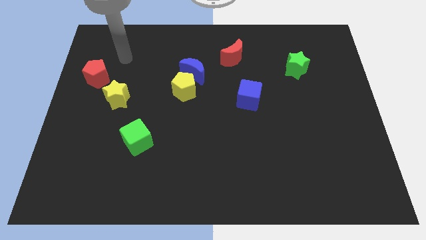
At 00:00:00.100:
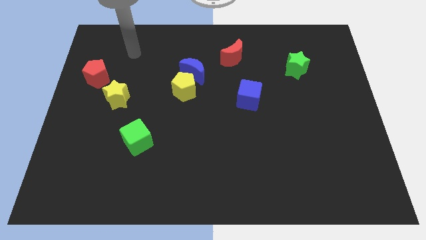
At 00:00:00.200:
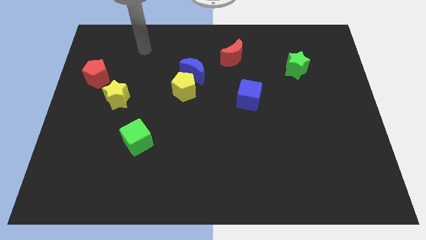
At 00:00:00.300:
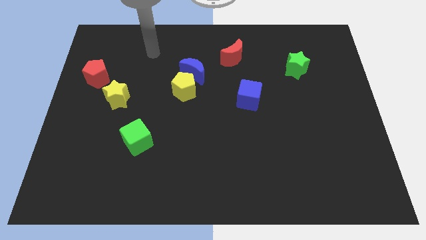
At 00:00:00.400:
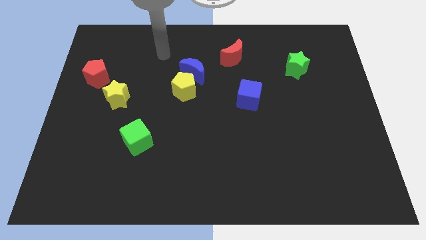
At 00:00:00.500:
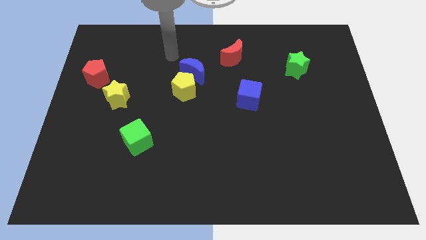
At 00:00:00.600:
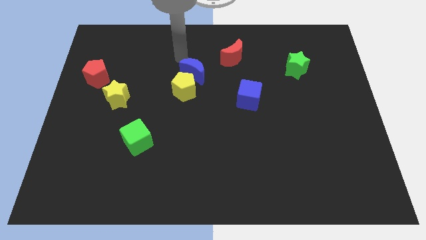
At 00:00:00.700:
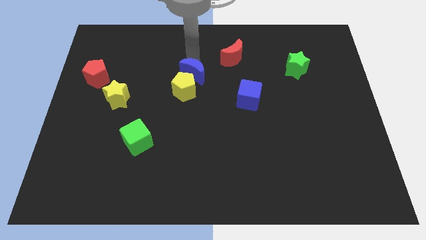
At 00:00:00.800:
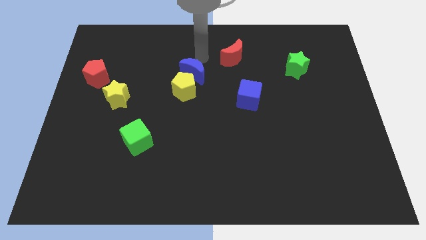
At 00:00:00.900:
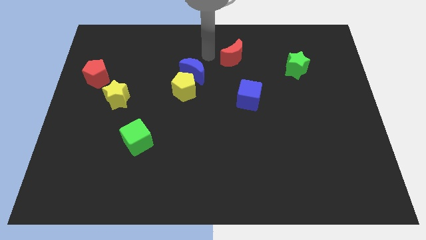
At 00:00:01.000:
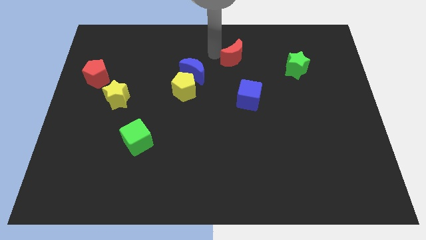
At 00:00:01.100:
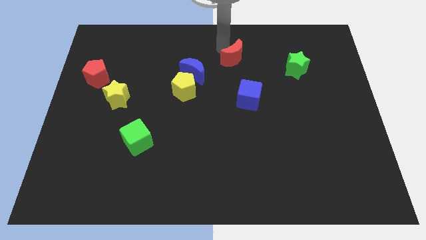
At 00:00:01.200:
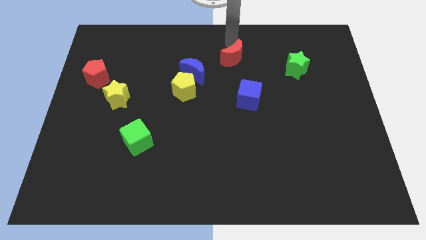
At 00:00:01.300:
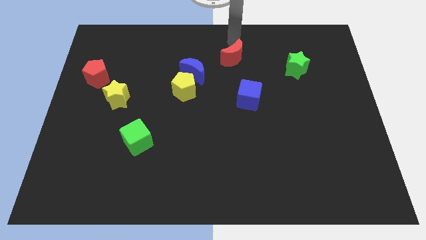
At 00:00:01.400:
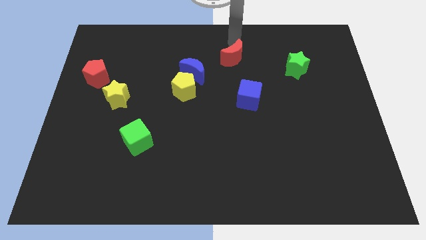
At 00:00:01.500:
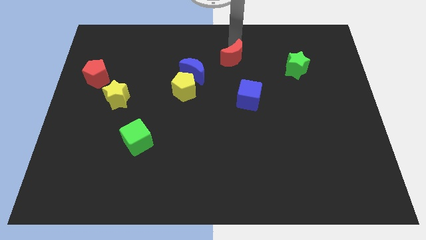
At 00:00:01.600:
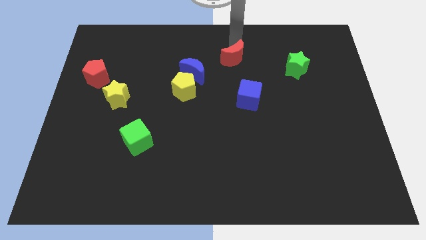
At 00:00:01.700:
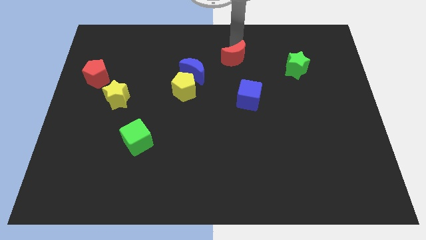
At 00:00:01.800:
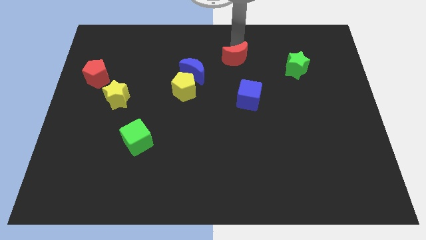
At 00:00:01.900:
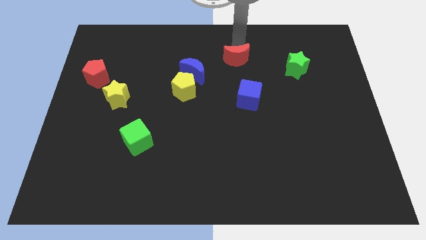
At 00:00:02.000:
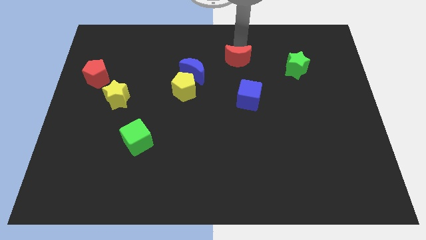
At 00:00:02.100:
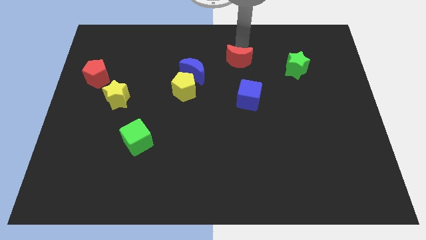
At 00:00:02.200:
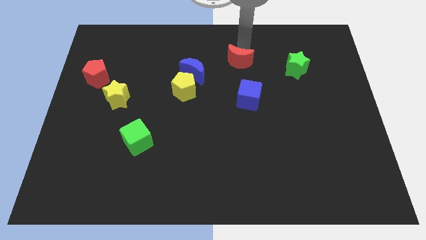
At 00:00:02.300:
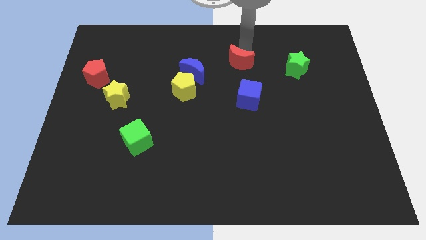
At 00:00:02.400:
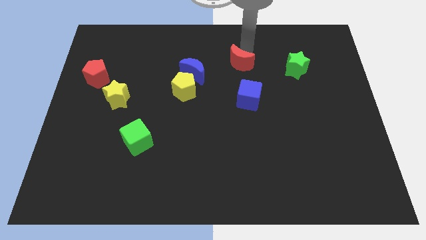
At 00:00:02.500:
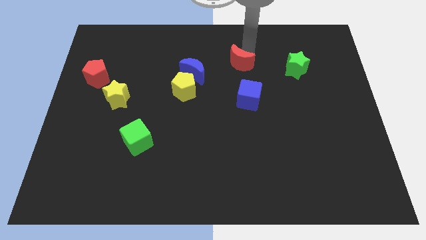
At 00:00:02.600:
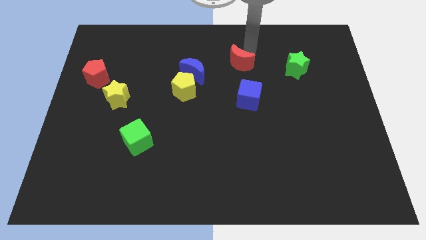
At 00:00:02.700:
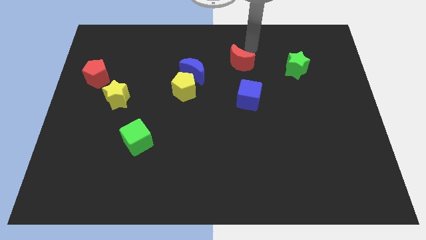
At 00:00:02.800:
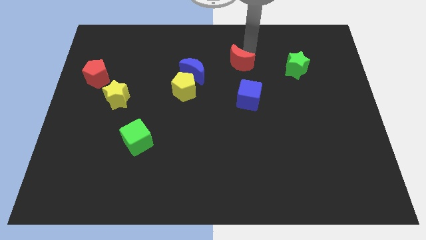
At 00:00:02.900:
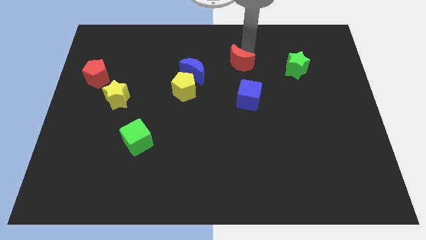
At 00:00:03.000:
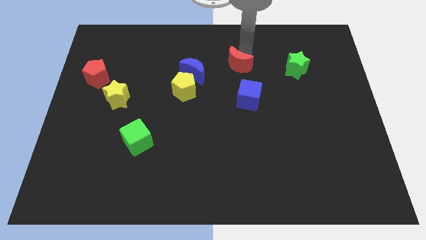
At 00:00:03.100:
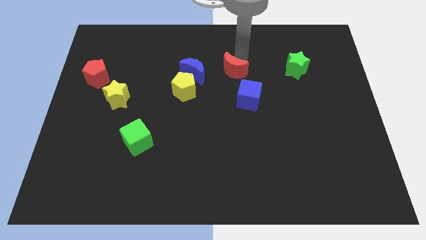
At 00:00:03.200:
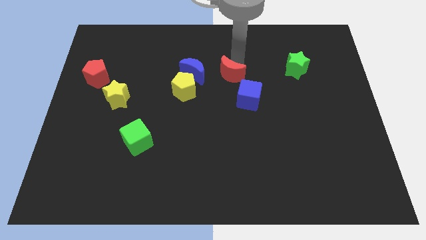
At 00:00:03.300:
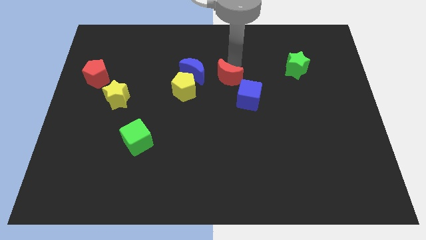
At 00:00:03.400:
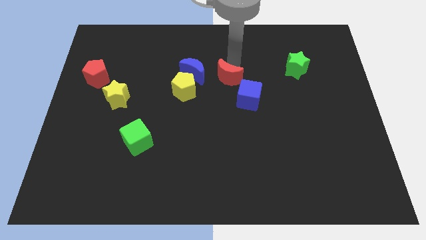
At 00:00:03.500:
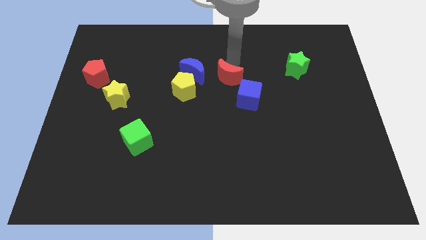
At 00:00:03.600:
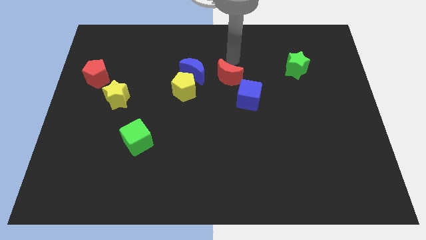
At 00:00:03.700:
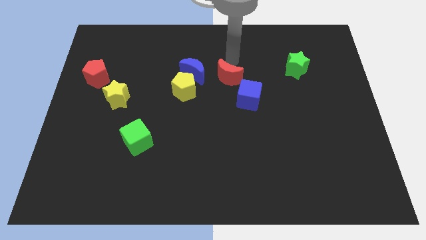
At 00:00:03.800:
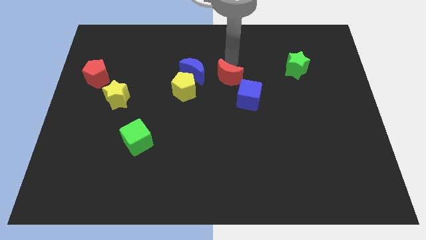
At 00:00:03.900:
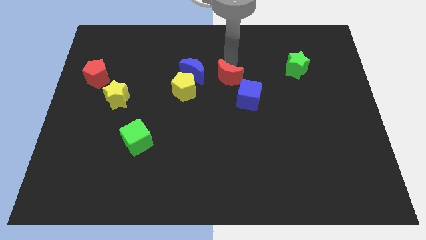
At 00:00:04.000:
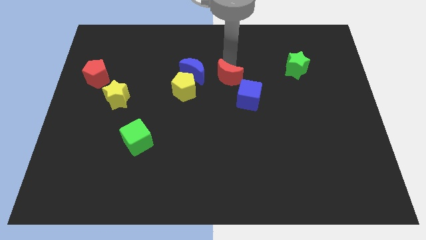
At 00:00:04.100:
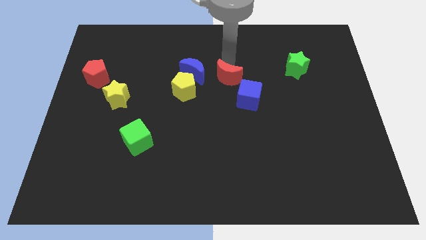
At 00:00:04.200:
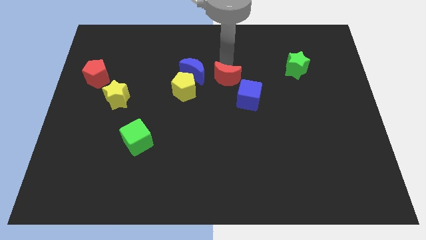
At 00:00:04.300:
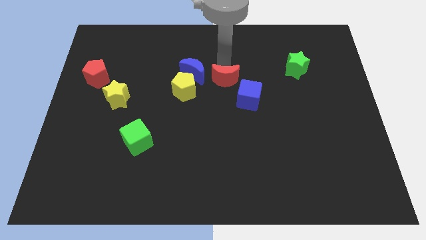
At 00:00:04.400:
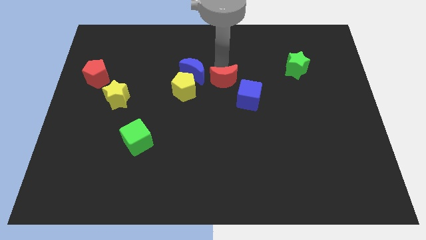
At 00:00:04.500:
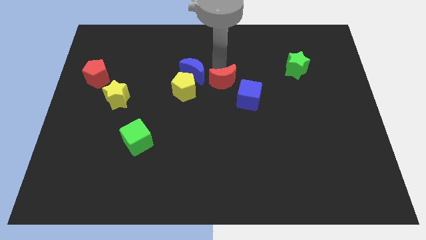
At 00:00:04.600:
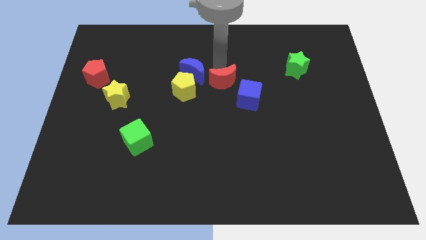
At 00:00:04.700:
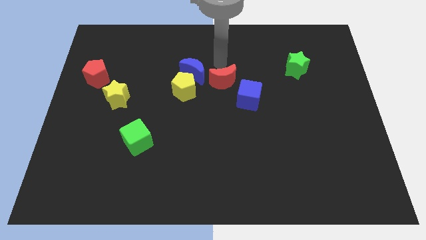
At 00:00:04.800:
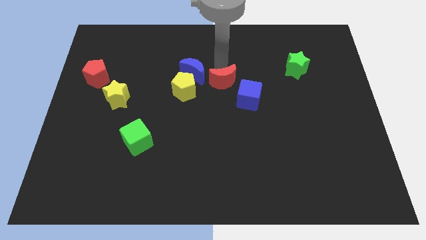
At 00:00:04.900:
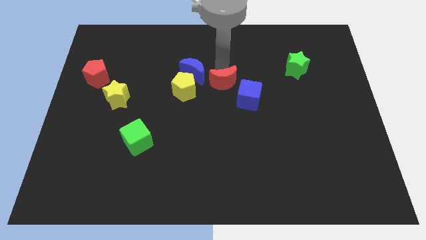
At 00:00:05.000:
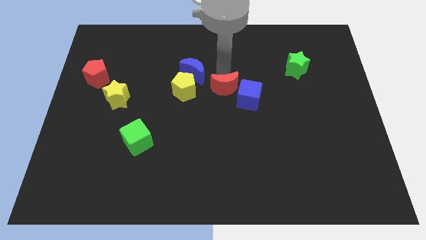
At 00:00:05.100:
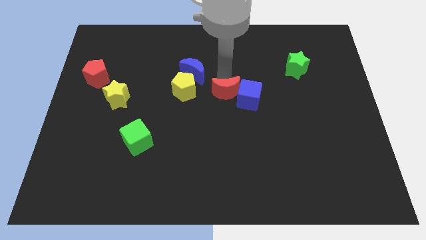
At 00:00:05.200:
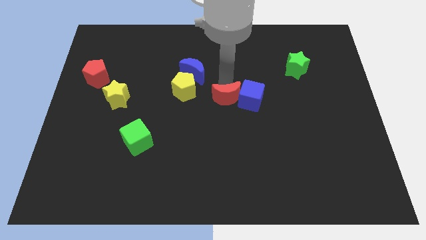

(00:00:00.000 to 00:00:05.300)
move the red moon to the bottom left side of the blue cube

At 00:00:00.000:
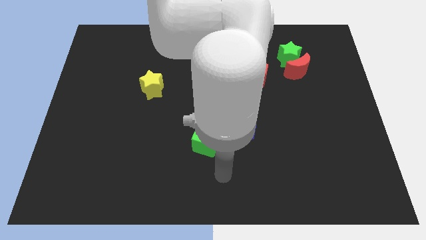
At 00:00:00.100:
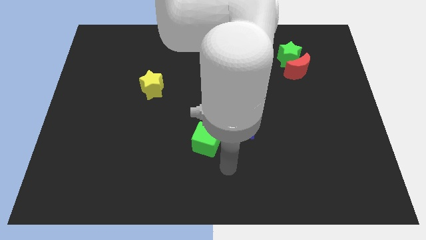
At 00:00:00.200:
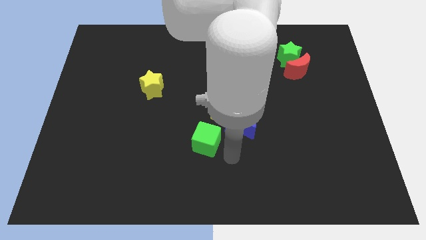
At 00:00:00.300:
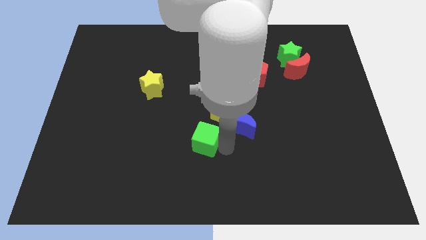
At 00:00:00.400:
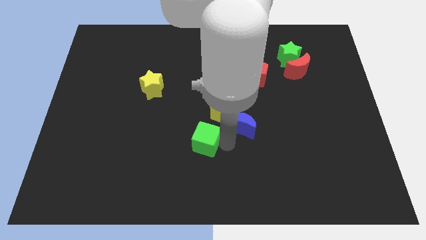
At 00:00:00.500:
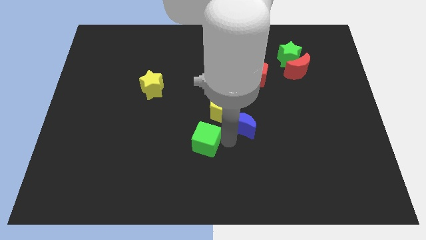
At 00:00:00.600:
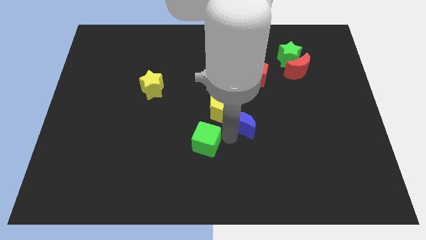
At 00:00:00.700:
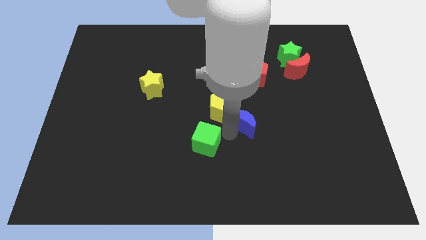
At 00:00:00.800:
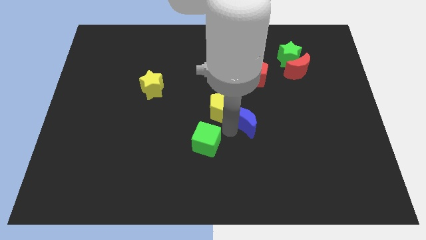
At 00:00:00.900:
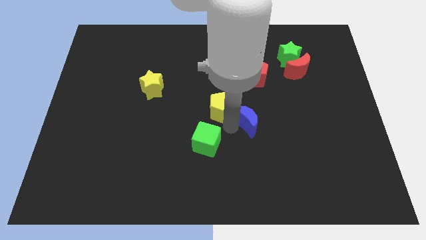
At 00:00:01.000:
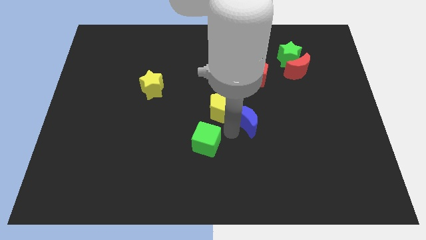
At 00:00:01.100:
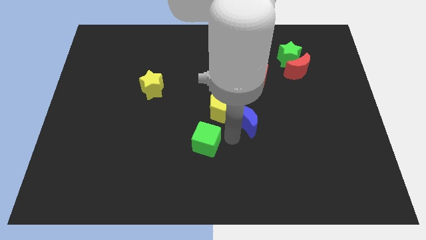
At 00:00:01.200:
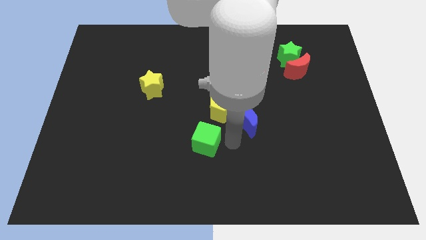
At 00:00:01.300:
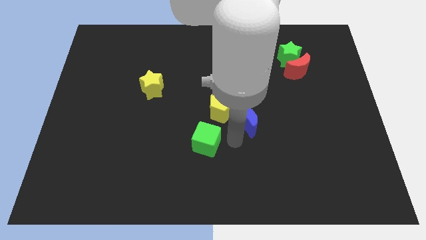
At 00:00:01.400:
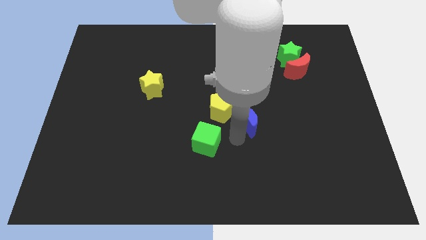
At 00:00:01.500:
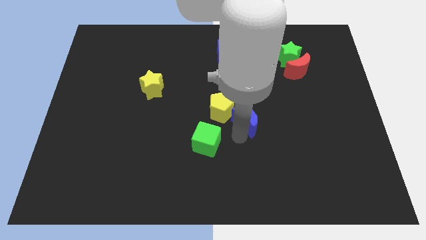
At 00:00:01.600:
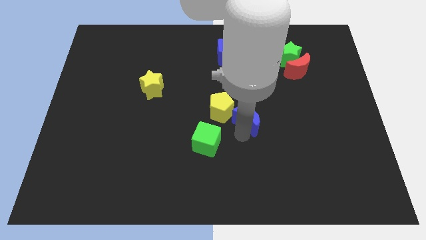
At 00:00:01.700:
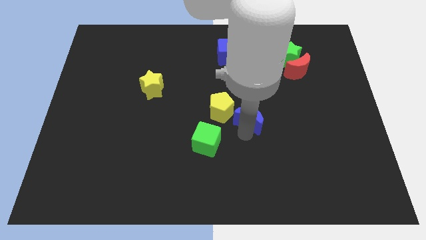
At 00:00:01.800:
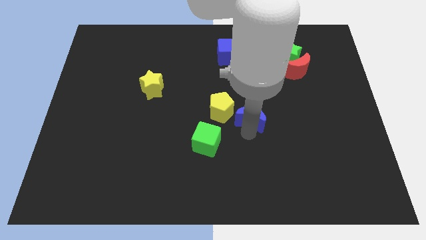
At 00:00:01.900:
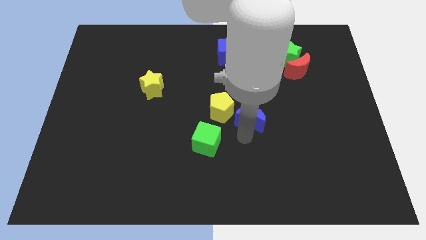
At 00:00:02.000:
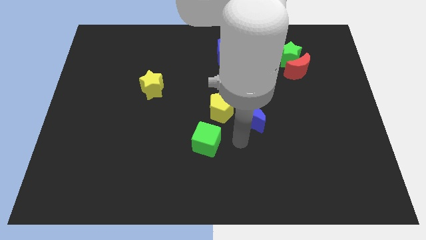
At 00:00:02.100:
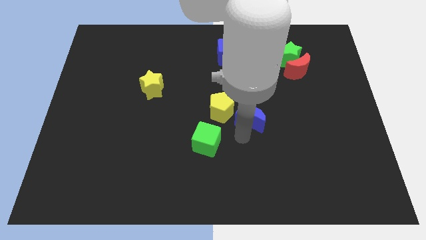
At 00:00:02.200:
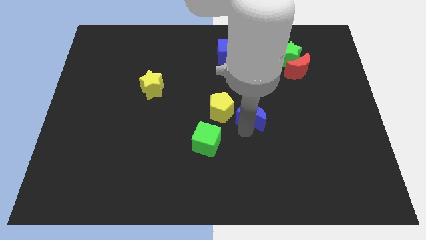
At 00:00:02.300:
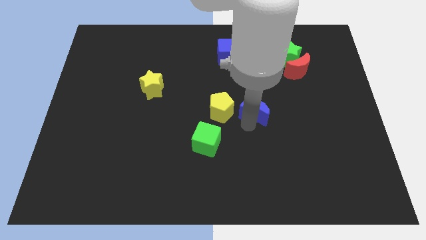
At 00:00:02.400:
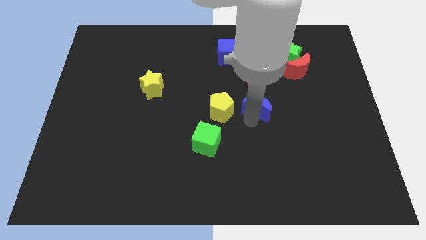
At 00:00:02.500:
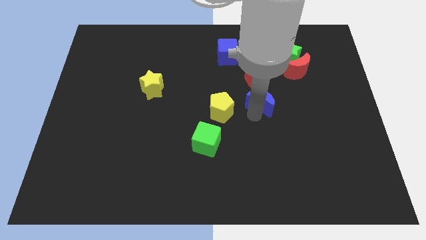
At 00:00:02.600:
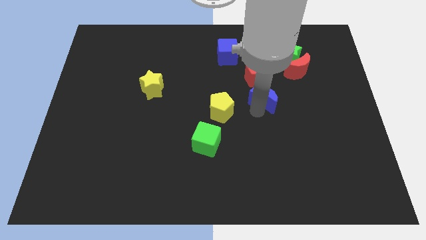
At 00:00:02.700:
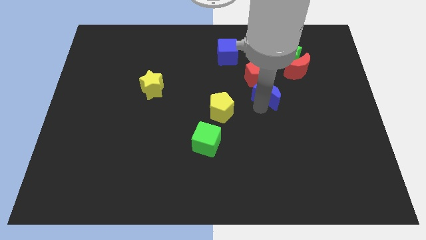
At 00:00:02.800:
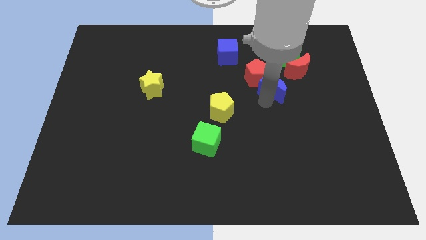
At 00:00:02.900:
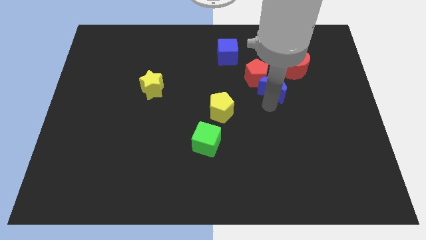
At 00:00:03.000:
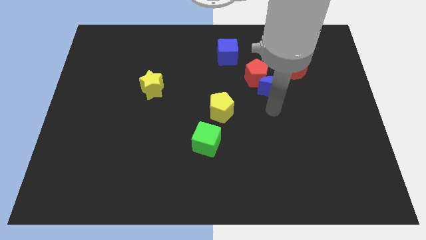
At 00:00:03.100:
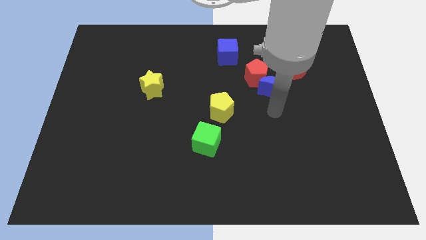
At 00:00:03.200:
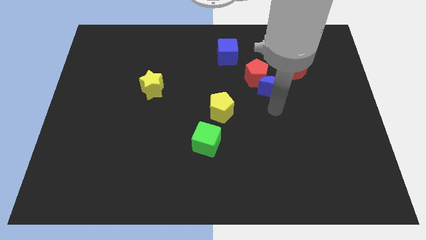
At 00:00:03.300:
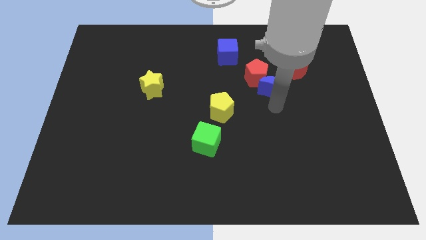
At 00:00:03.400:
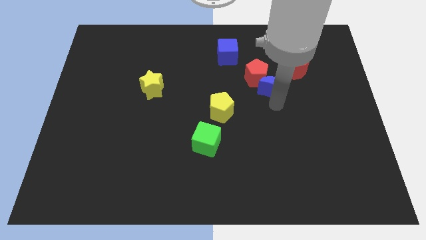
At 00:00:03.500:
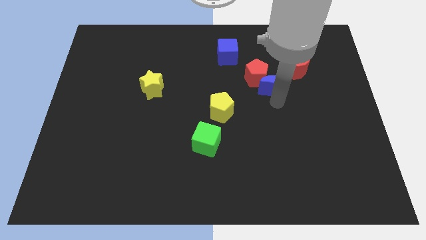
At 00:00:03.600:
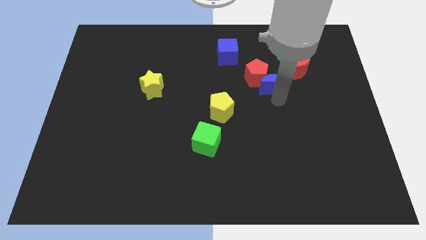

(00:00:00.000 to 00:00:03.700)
move the blue moon to the bottom left side of the green star
